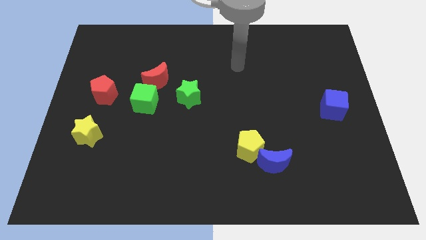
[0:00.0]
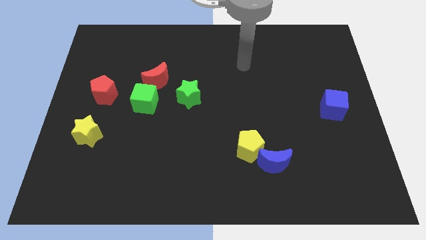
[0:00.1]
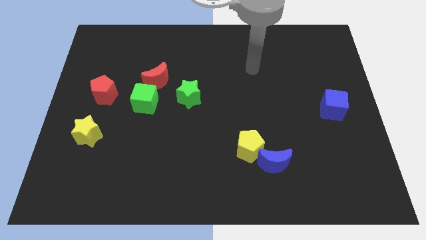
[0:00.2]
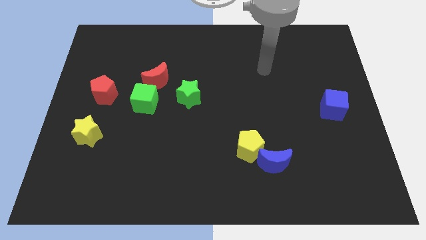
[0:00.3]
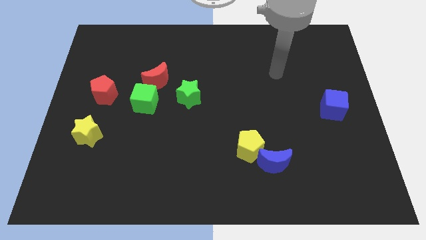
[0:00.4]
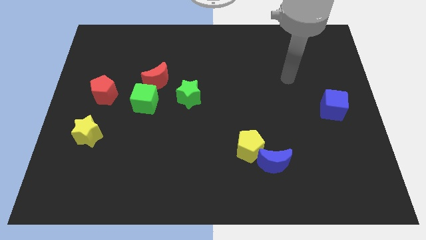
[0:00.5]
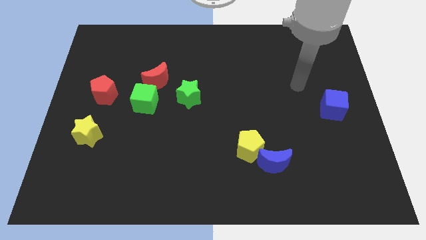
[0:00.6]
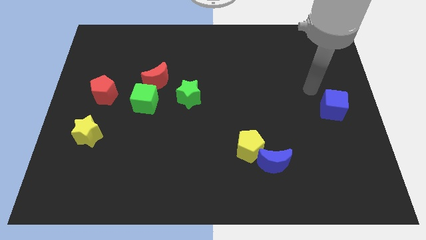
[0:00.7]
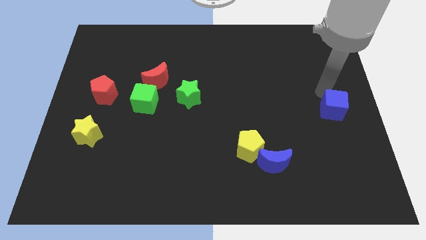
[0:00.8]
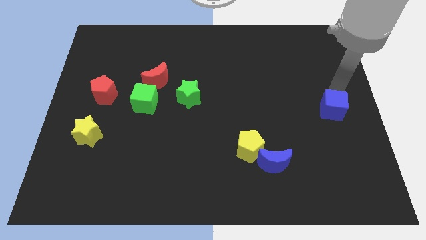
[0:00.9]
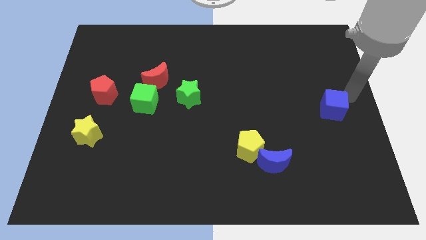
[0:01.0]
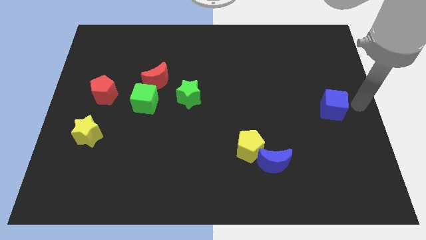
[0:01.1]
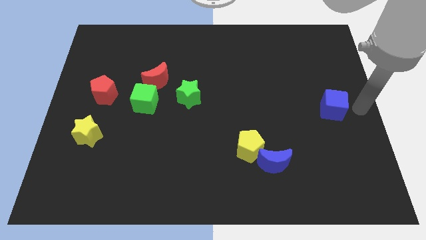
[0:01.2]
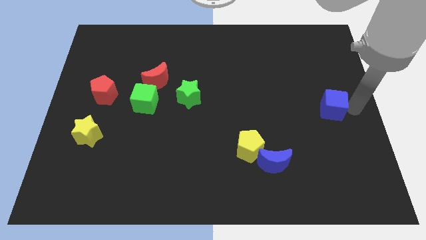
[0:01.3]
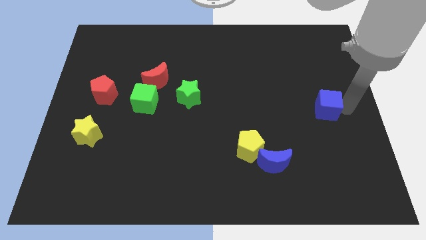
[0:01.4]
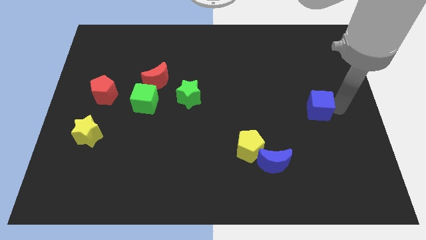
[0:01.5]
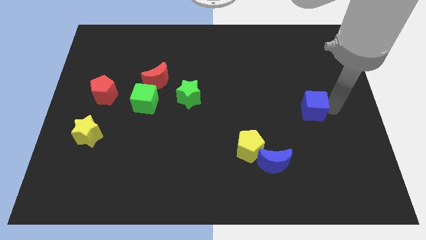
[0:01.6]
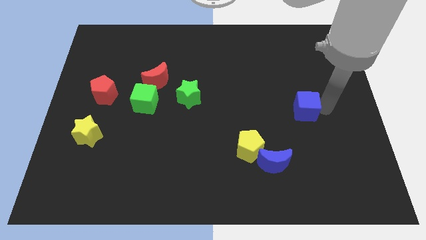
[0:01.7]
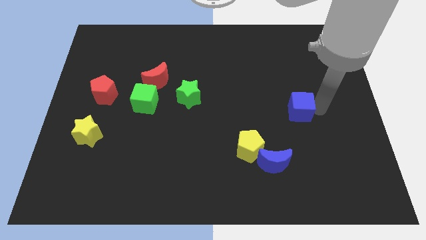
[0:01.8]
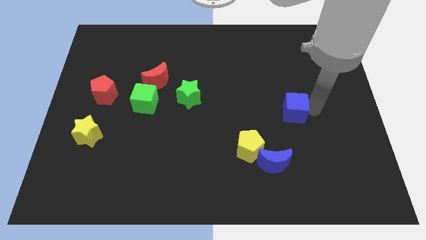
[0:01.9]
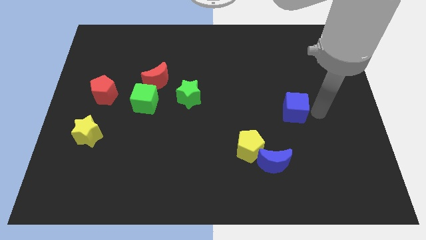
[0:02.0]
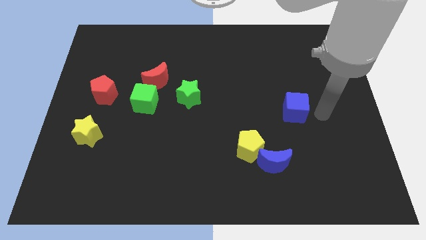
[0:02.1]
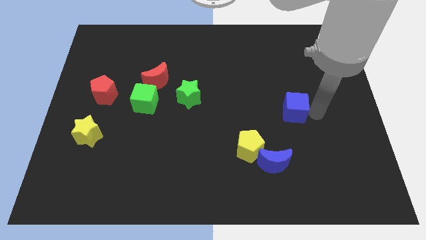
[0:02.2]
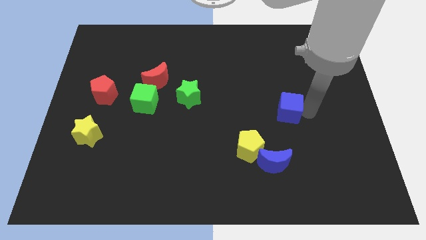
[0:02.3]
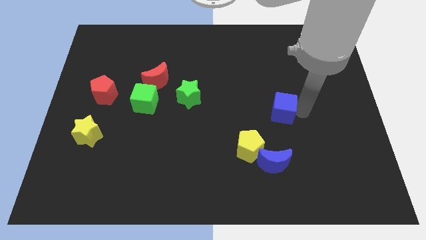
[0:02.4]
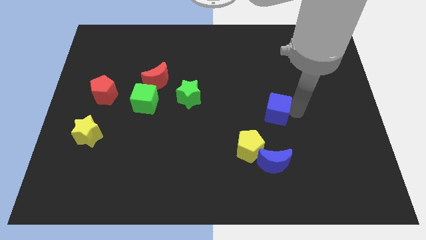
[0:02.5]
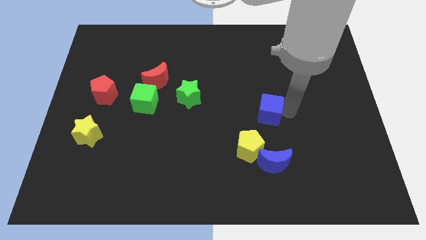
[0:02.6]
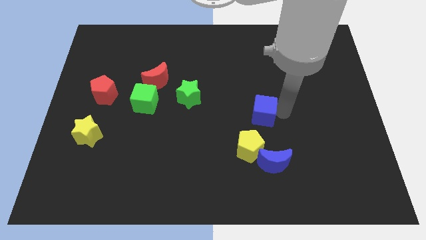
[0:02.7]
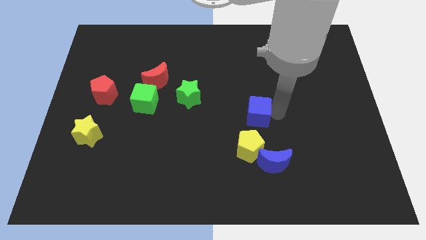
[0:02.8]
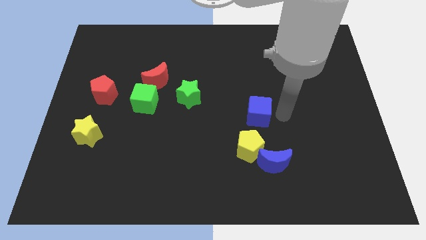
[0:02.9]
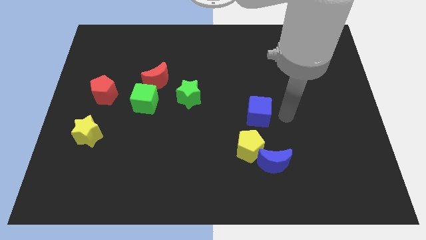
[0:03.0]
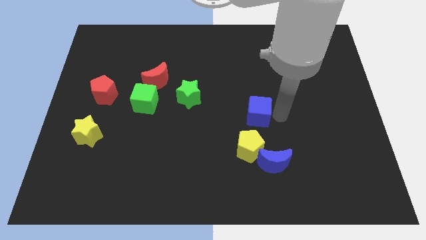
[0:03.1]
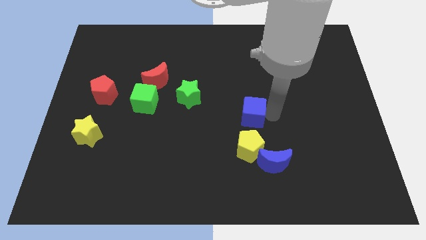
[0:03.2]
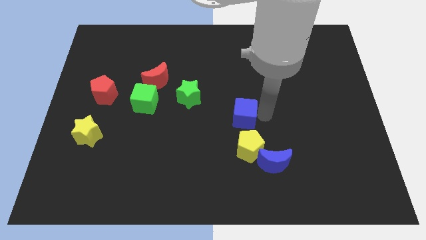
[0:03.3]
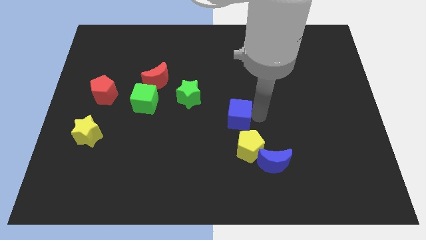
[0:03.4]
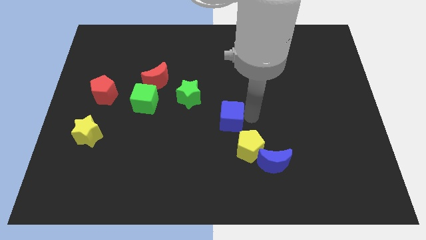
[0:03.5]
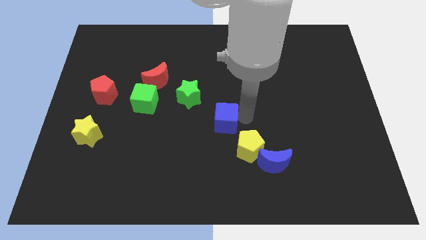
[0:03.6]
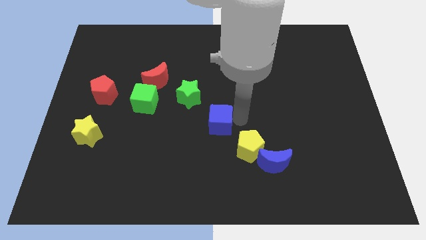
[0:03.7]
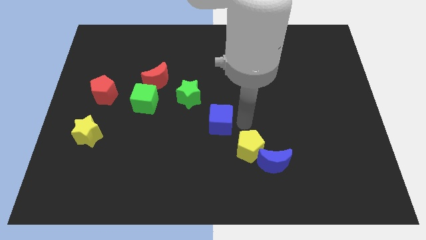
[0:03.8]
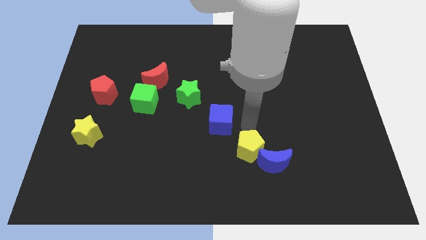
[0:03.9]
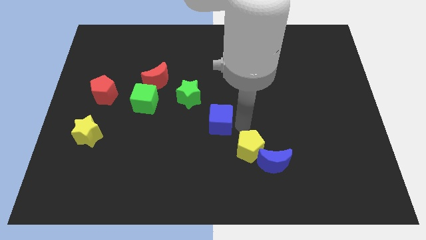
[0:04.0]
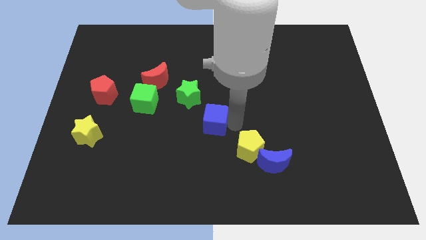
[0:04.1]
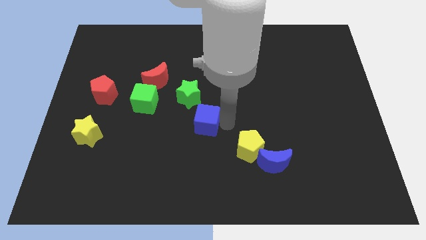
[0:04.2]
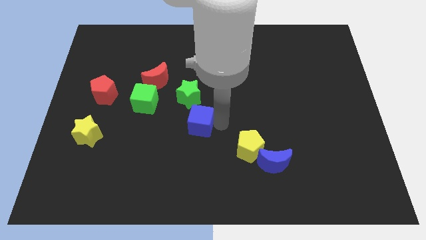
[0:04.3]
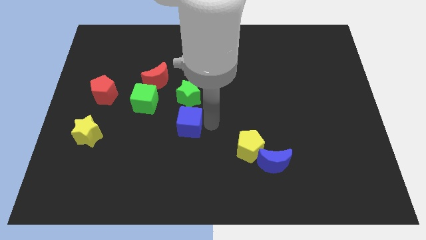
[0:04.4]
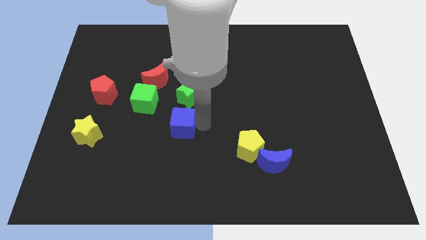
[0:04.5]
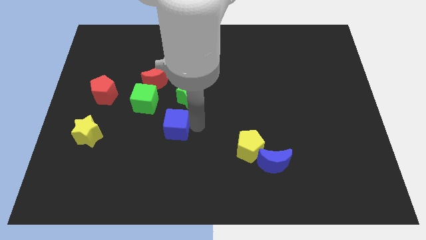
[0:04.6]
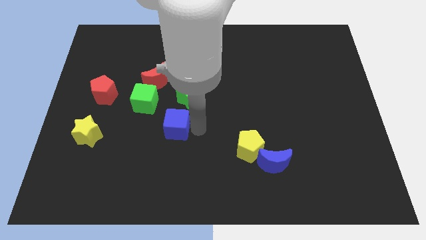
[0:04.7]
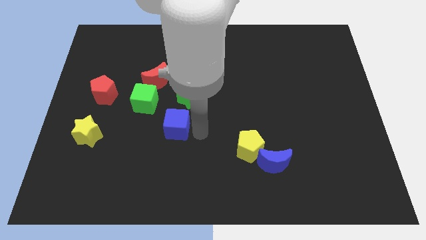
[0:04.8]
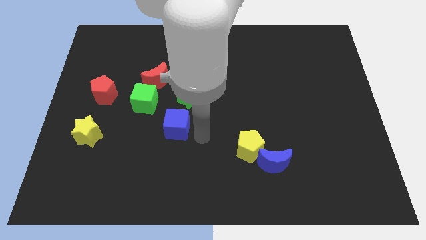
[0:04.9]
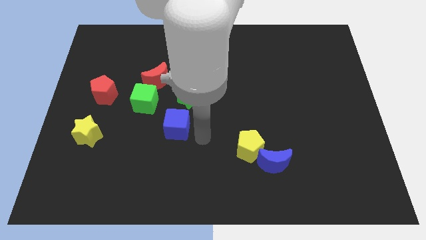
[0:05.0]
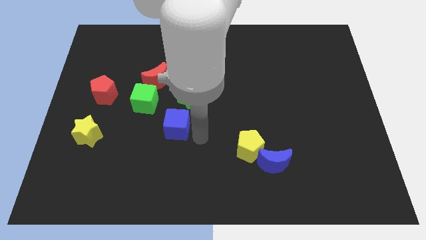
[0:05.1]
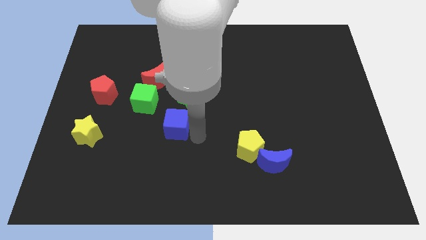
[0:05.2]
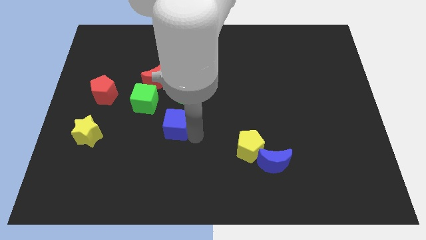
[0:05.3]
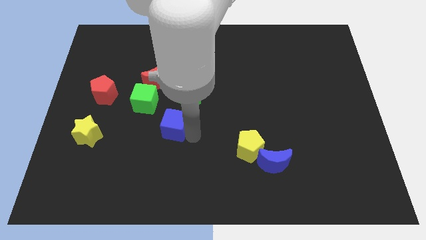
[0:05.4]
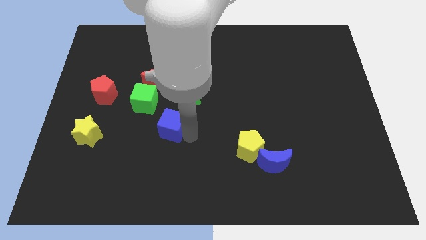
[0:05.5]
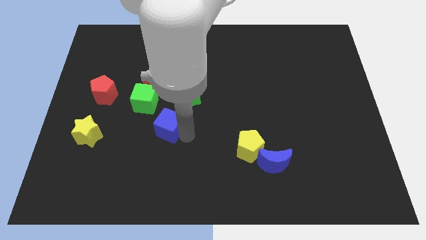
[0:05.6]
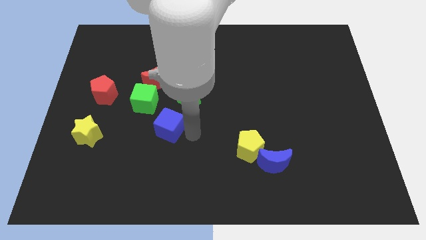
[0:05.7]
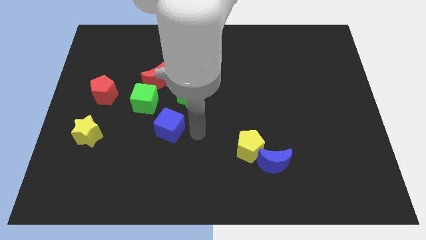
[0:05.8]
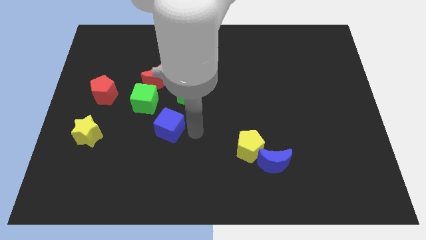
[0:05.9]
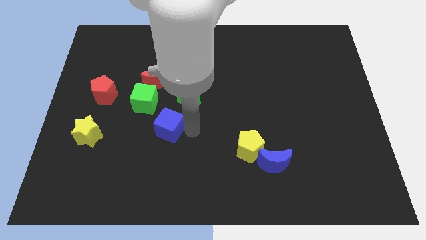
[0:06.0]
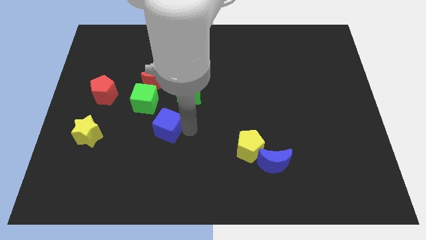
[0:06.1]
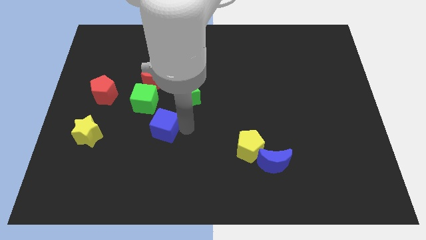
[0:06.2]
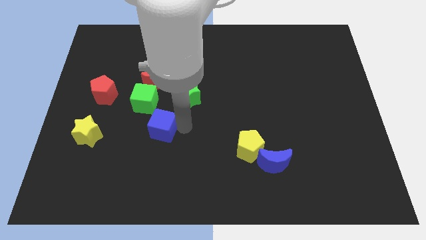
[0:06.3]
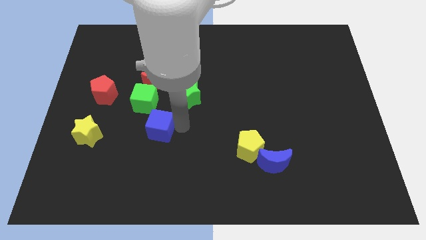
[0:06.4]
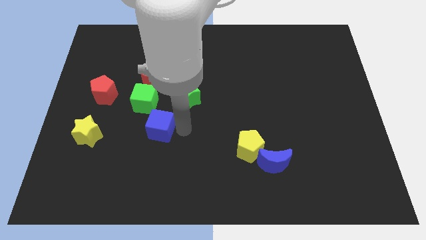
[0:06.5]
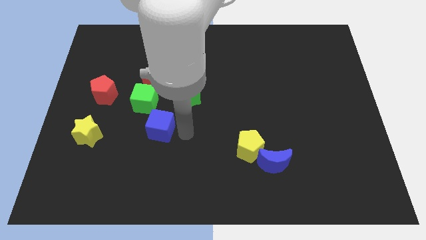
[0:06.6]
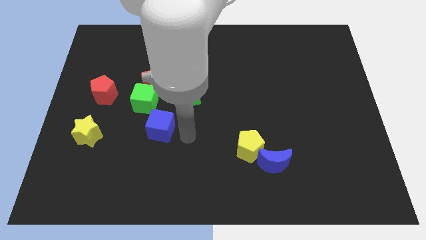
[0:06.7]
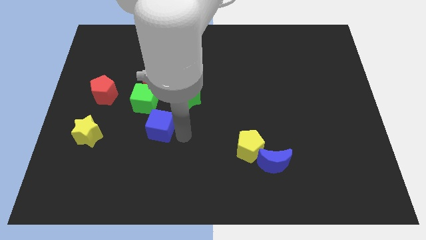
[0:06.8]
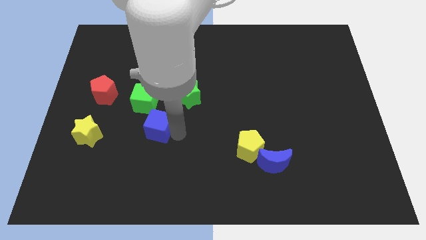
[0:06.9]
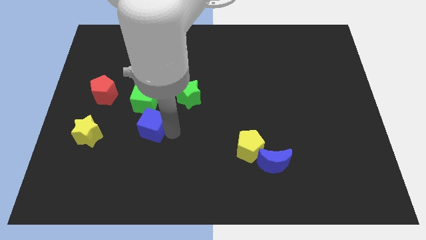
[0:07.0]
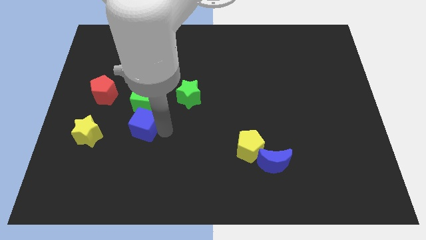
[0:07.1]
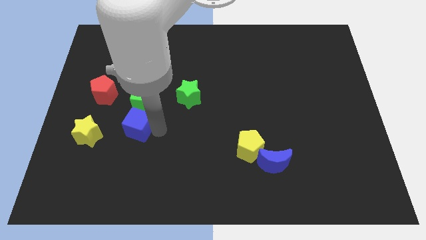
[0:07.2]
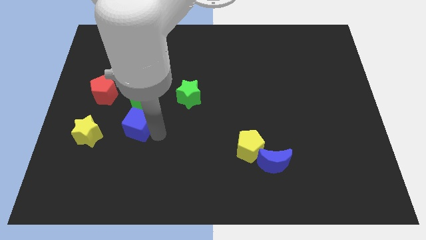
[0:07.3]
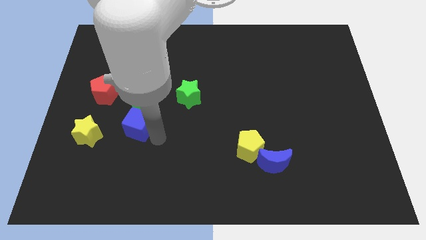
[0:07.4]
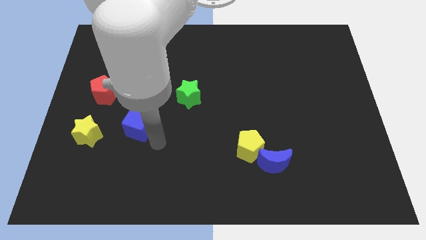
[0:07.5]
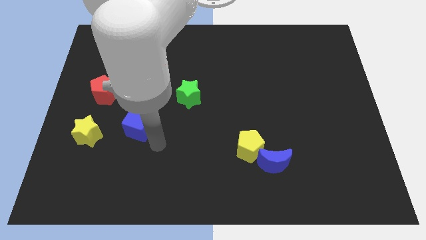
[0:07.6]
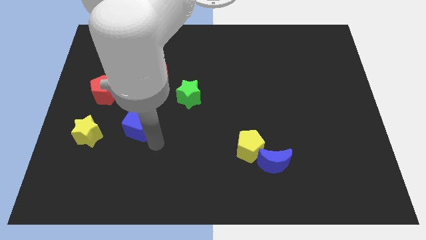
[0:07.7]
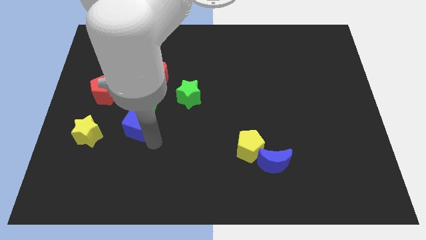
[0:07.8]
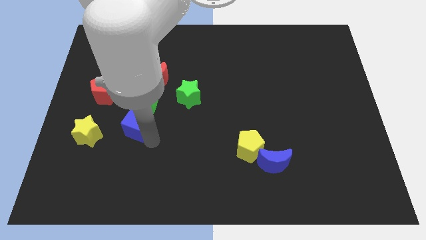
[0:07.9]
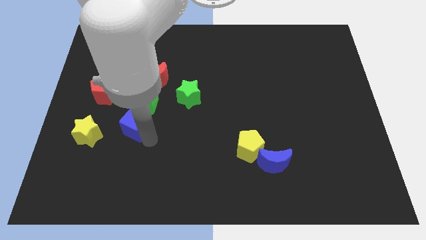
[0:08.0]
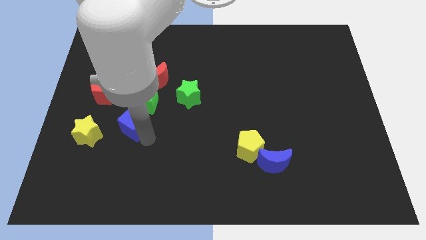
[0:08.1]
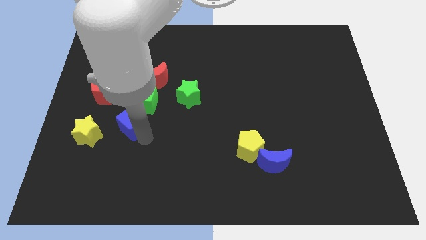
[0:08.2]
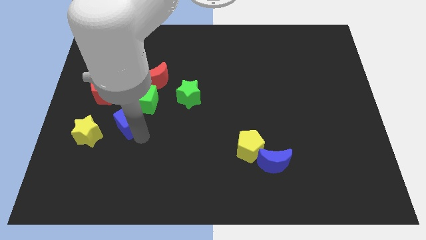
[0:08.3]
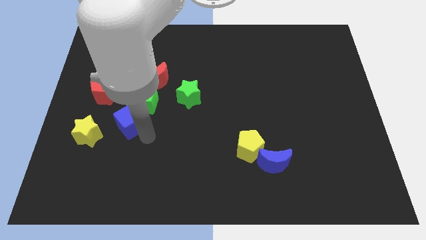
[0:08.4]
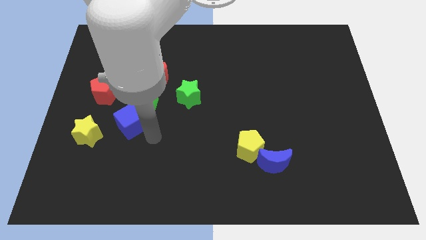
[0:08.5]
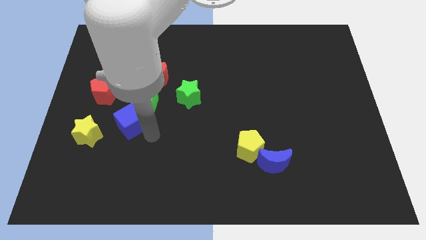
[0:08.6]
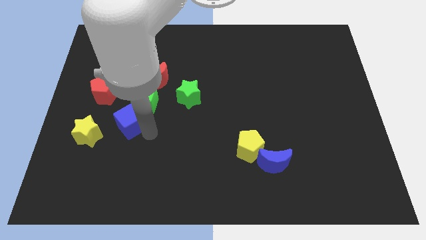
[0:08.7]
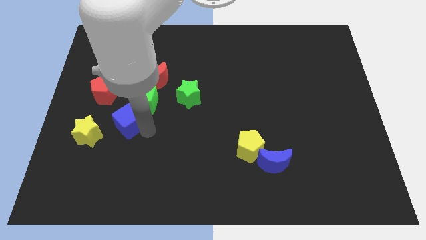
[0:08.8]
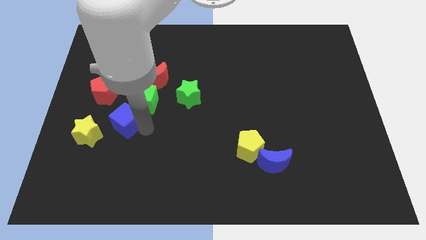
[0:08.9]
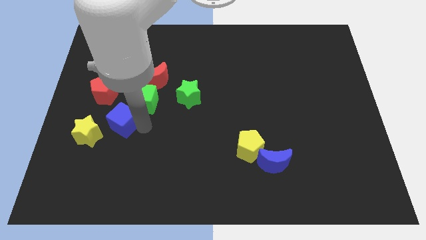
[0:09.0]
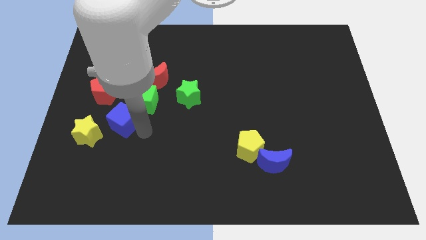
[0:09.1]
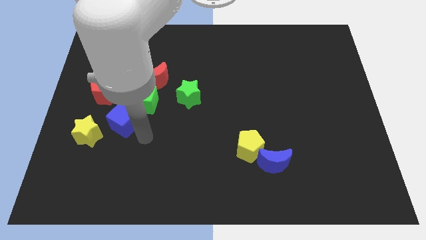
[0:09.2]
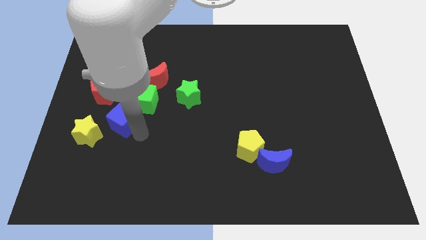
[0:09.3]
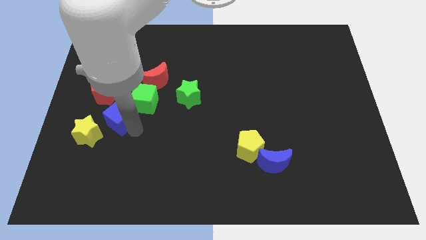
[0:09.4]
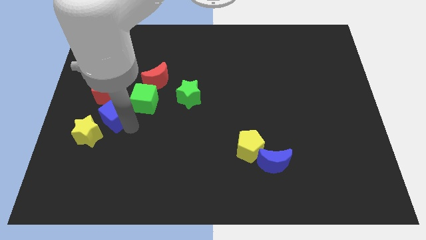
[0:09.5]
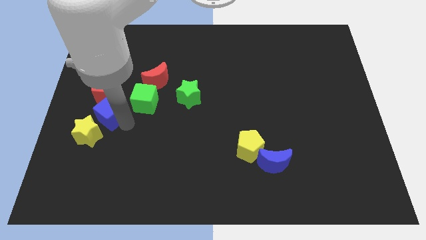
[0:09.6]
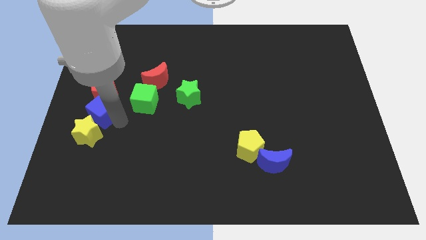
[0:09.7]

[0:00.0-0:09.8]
slide the blue cube towards the red pentagon
